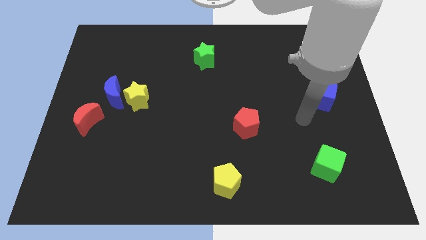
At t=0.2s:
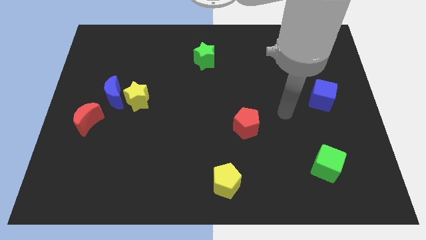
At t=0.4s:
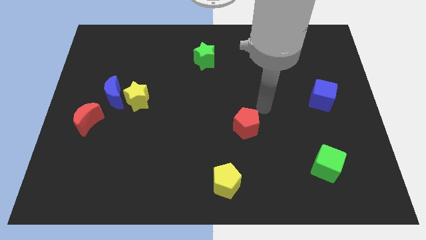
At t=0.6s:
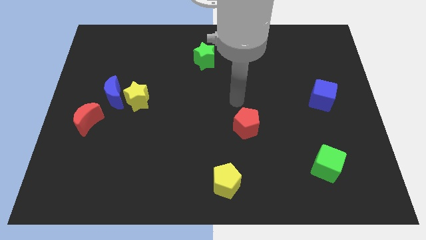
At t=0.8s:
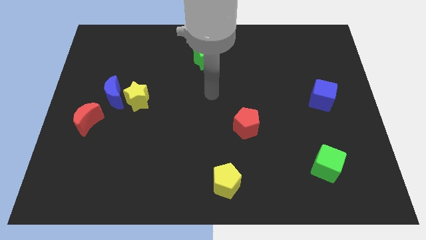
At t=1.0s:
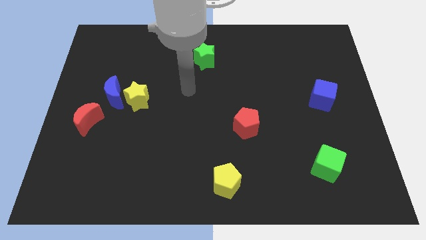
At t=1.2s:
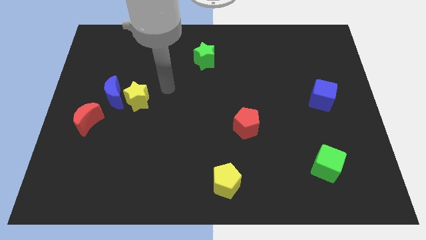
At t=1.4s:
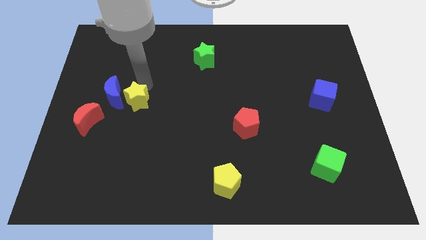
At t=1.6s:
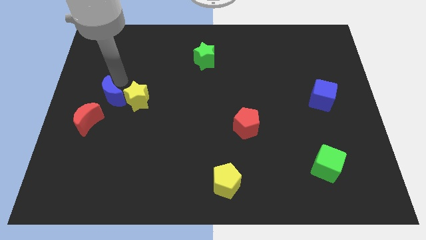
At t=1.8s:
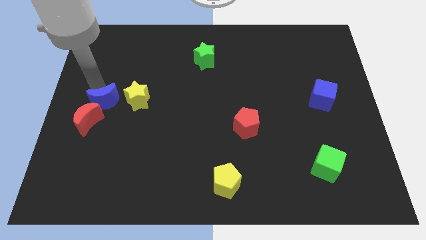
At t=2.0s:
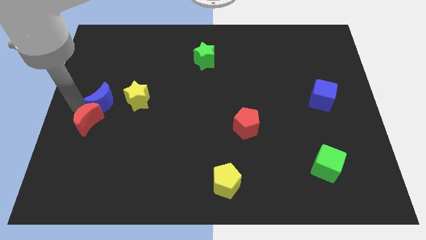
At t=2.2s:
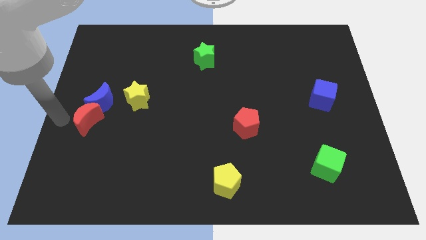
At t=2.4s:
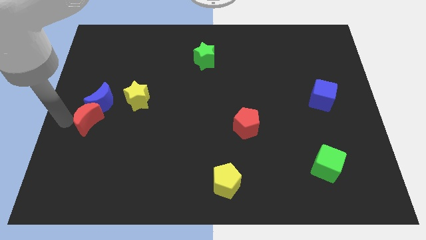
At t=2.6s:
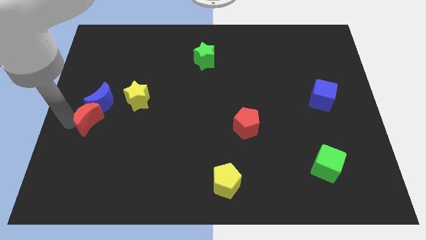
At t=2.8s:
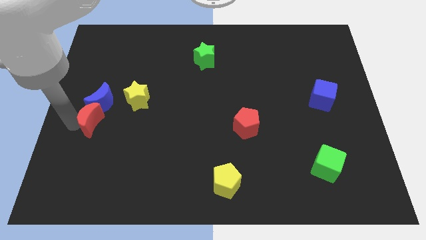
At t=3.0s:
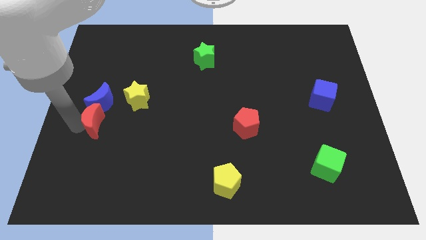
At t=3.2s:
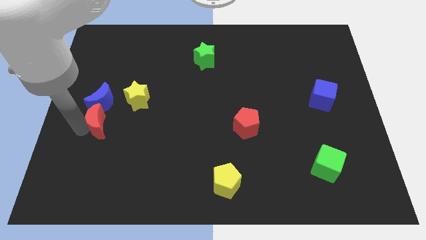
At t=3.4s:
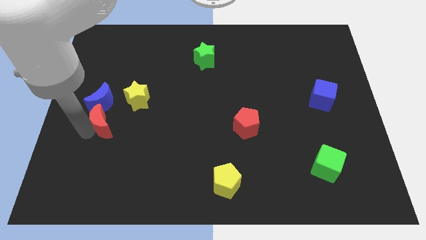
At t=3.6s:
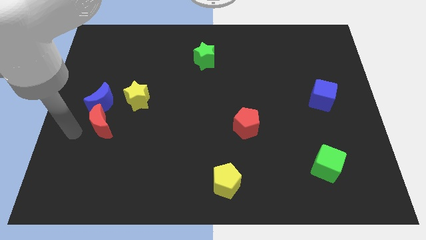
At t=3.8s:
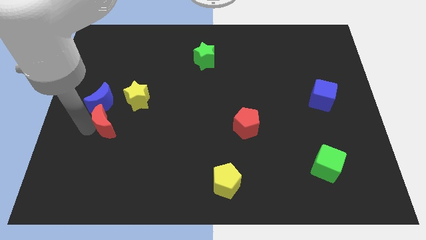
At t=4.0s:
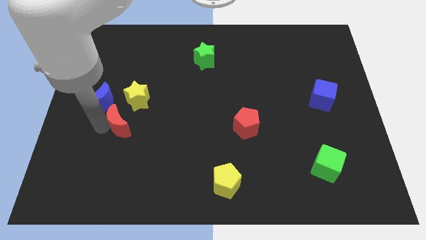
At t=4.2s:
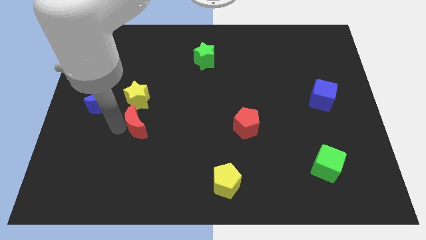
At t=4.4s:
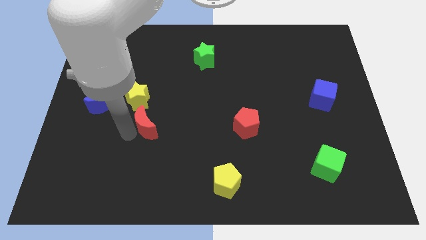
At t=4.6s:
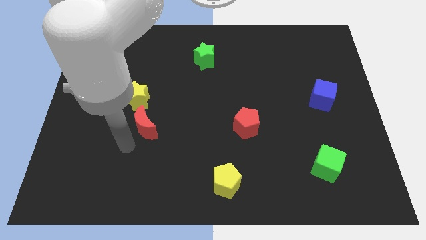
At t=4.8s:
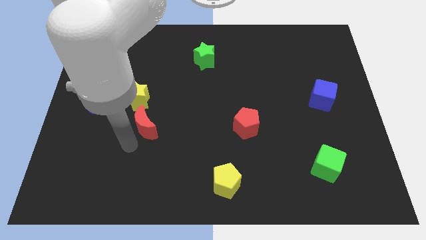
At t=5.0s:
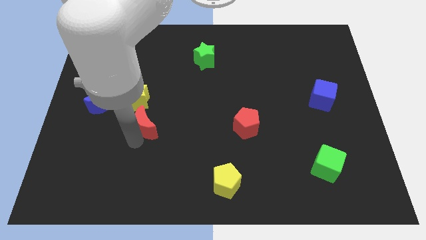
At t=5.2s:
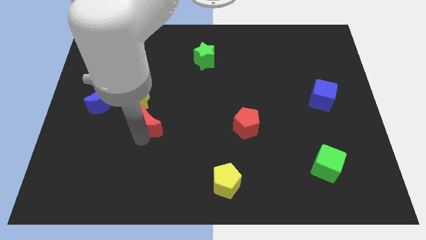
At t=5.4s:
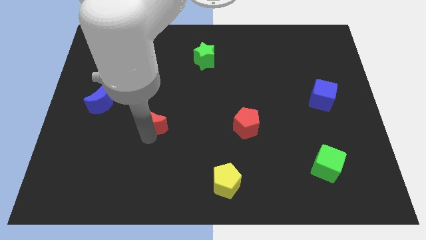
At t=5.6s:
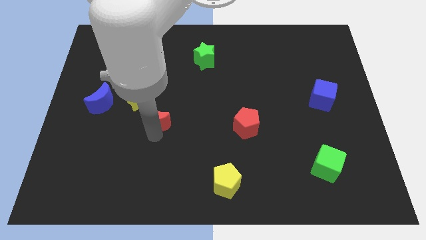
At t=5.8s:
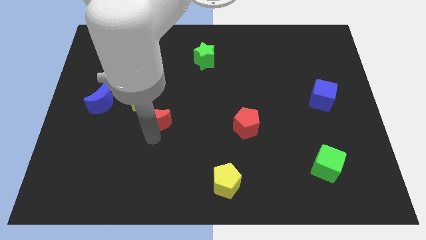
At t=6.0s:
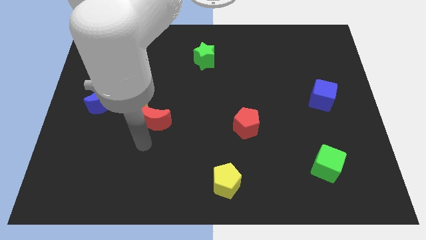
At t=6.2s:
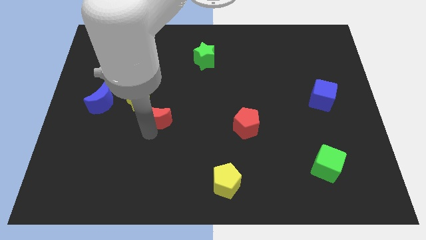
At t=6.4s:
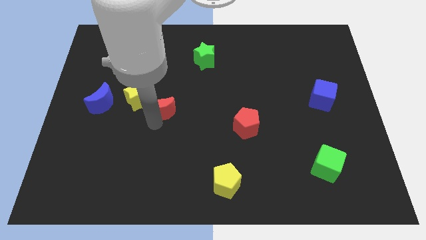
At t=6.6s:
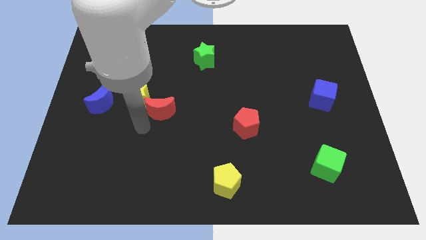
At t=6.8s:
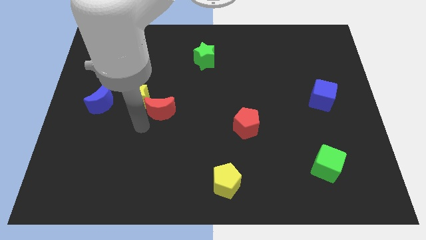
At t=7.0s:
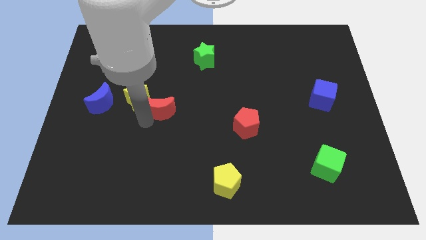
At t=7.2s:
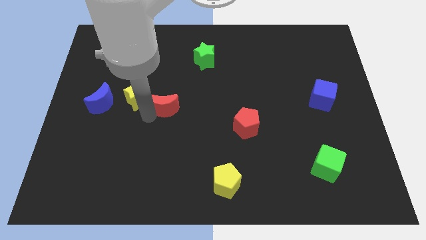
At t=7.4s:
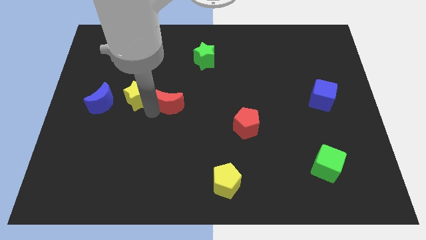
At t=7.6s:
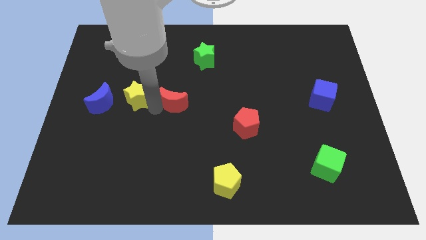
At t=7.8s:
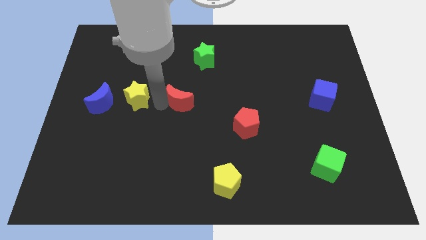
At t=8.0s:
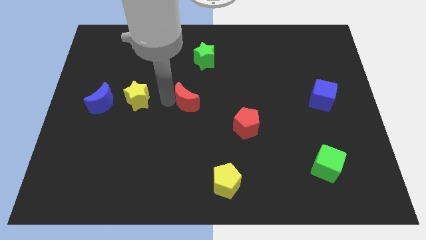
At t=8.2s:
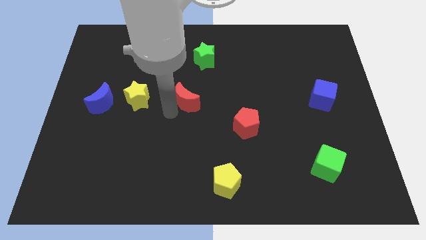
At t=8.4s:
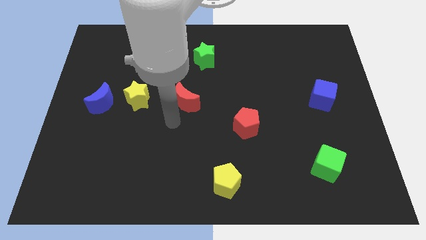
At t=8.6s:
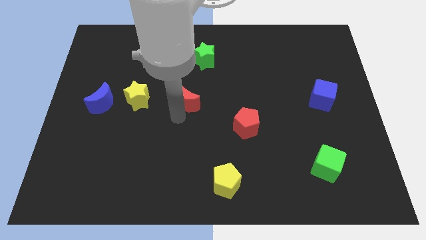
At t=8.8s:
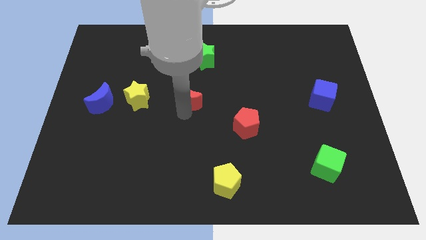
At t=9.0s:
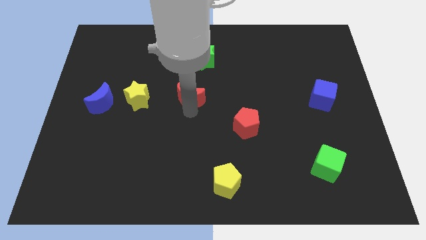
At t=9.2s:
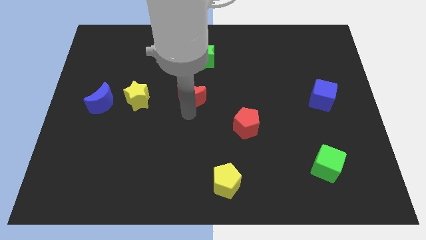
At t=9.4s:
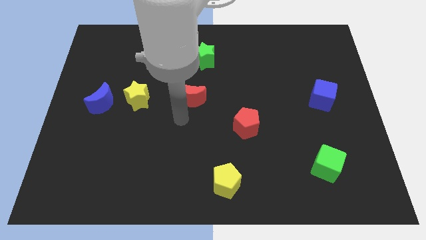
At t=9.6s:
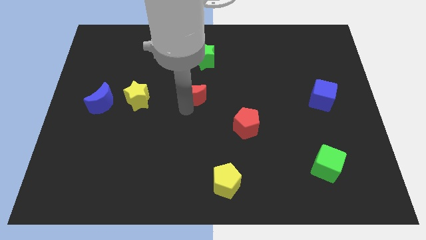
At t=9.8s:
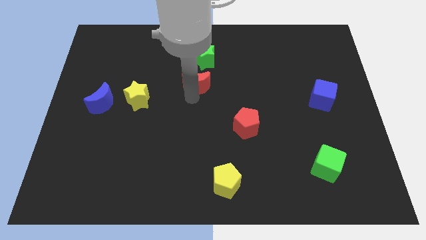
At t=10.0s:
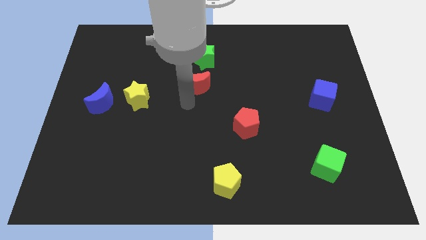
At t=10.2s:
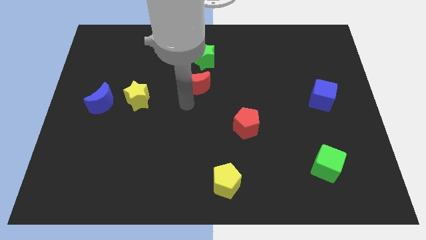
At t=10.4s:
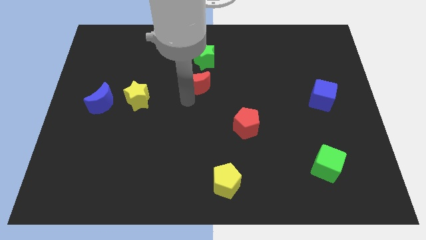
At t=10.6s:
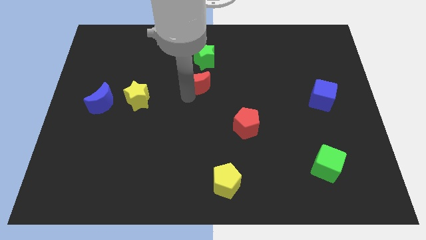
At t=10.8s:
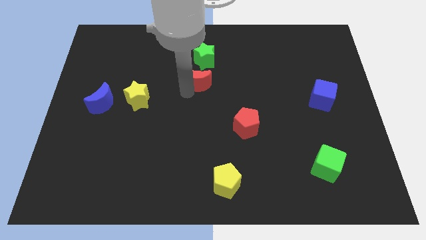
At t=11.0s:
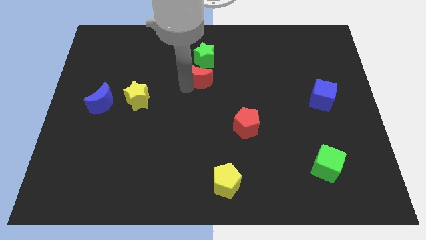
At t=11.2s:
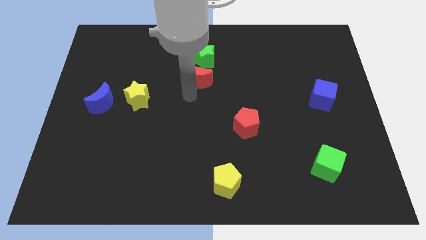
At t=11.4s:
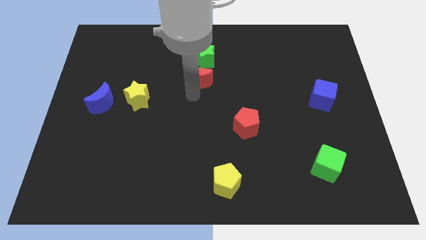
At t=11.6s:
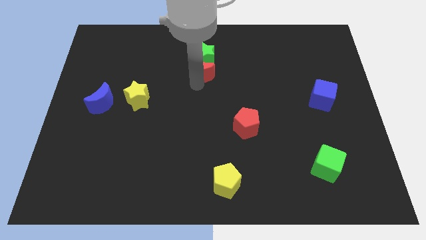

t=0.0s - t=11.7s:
push the red moon close to the green star

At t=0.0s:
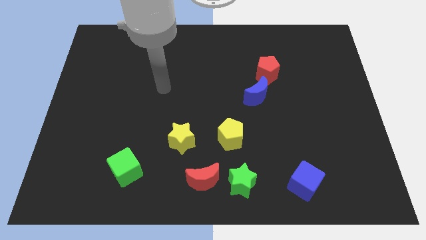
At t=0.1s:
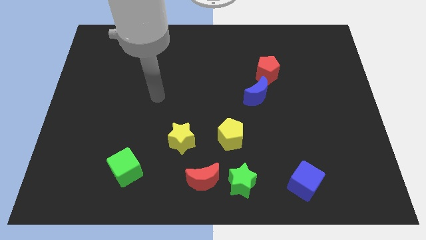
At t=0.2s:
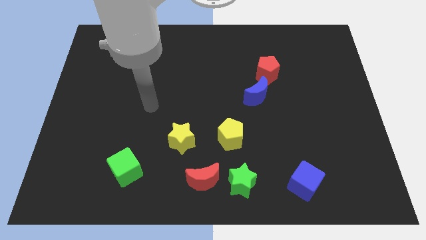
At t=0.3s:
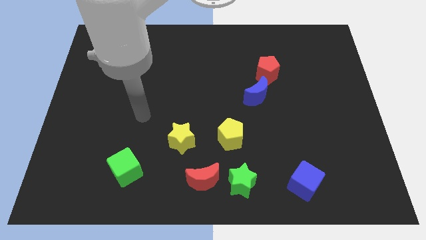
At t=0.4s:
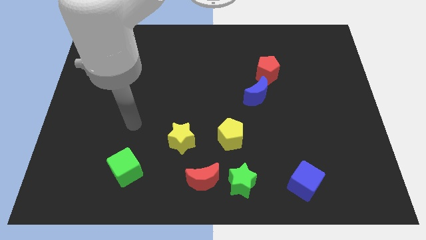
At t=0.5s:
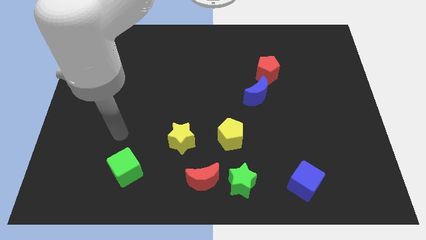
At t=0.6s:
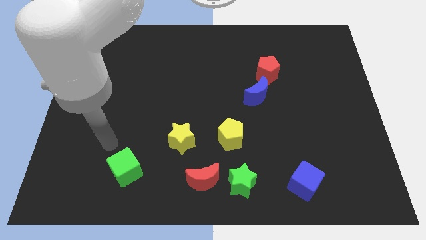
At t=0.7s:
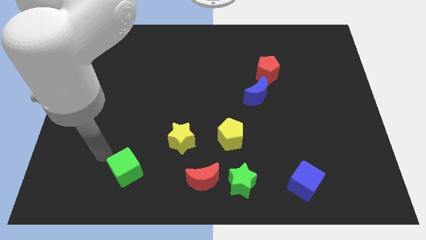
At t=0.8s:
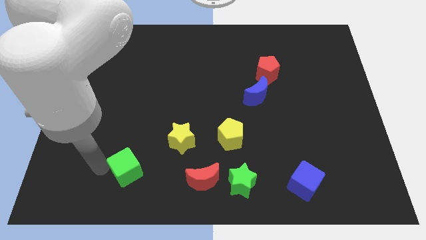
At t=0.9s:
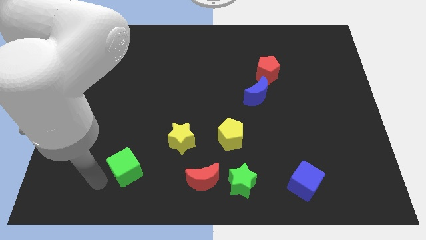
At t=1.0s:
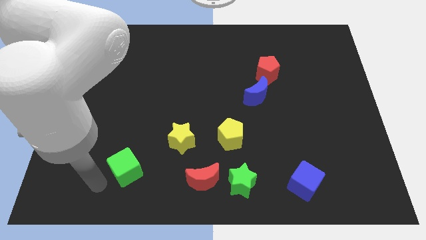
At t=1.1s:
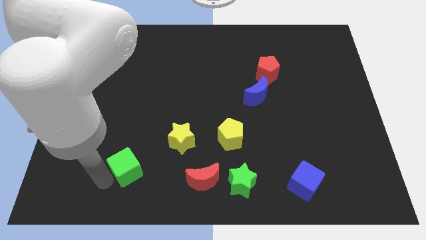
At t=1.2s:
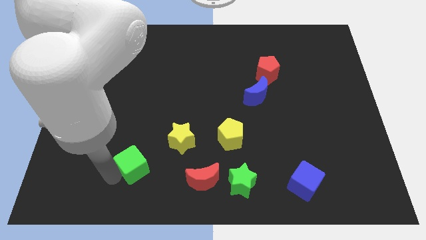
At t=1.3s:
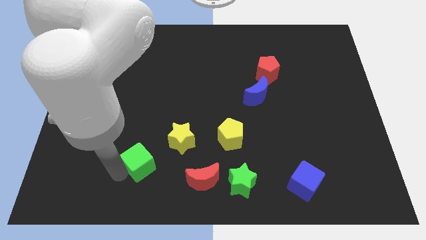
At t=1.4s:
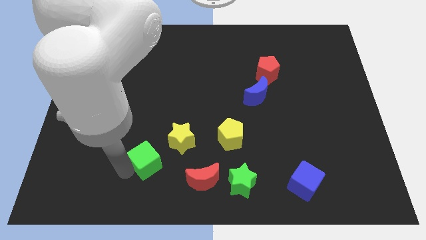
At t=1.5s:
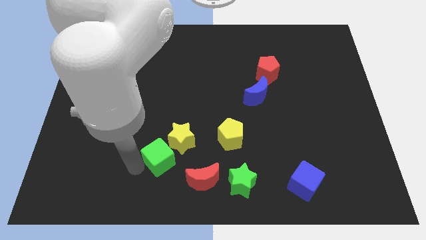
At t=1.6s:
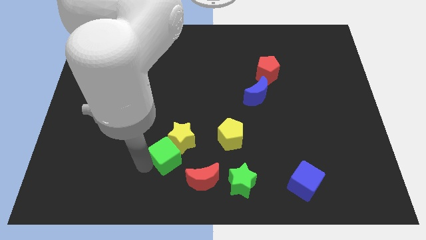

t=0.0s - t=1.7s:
push the green cube to the yellow star
